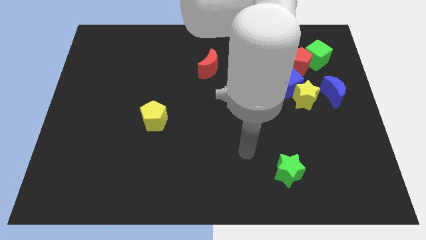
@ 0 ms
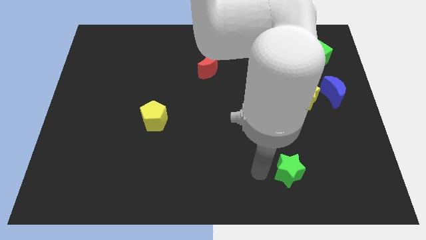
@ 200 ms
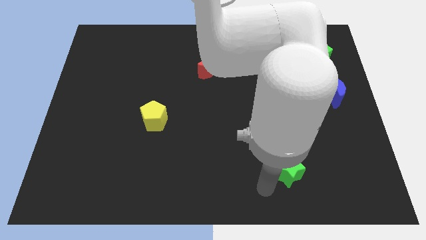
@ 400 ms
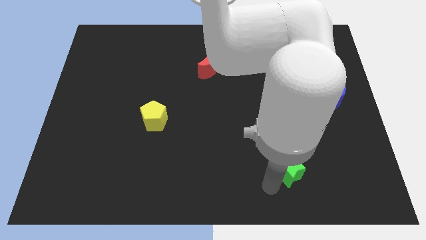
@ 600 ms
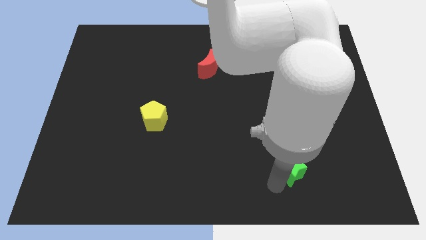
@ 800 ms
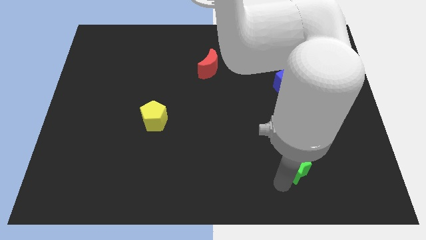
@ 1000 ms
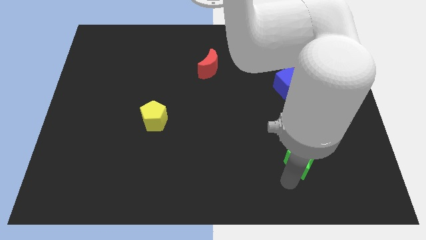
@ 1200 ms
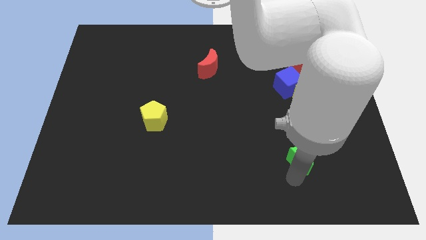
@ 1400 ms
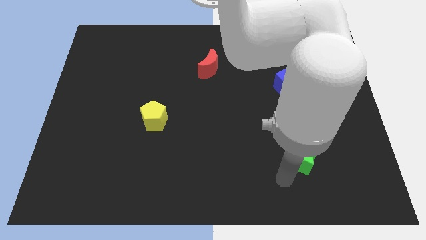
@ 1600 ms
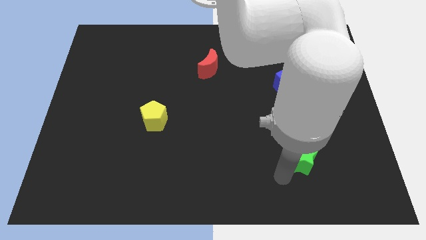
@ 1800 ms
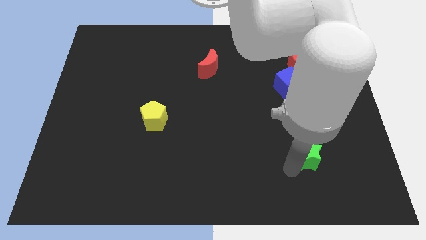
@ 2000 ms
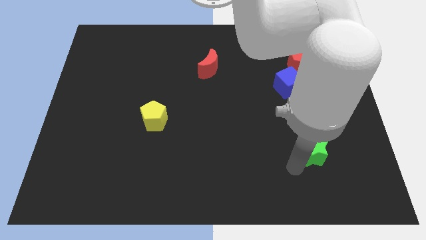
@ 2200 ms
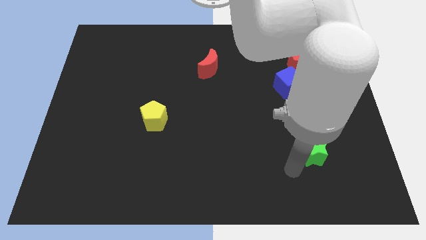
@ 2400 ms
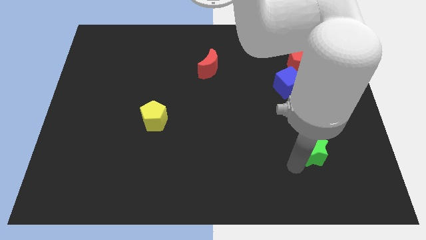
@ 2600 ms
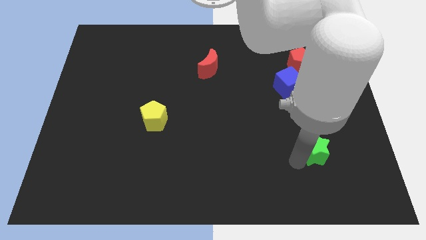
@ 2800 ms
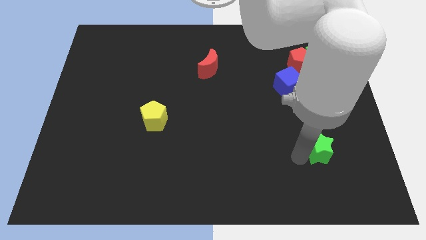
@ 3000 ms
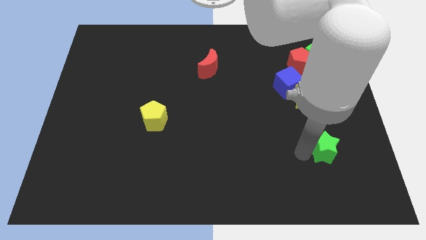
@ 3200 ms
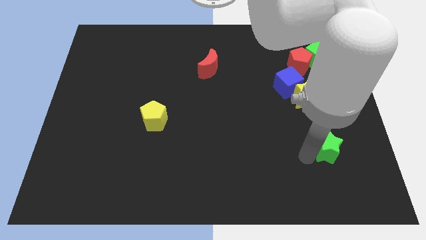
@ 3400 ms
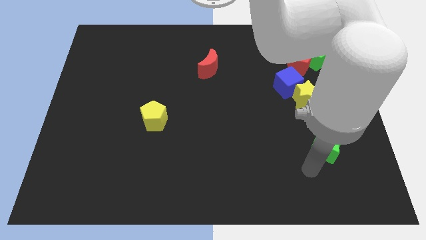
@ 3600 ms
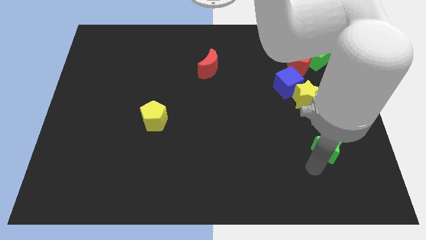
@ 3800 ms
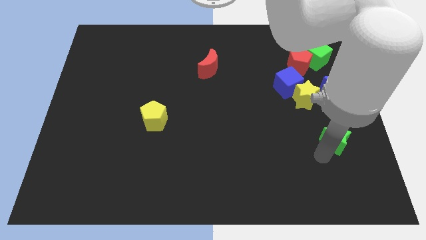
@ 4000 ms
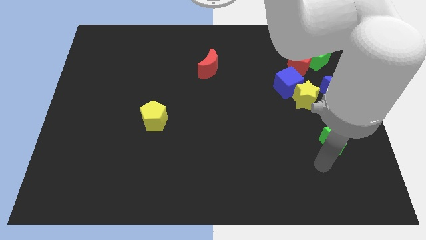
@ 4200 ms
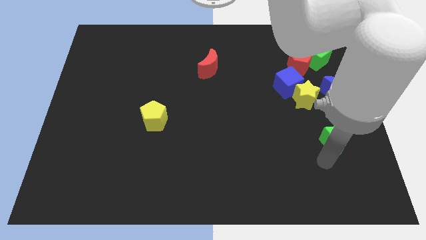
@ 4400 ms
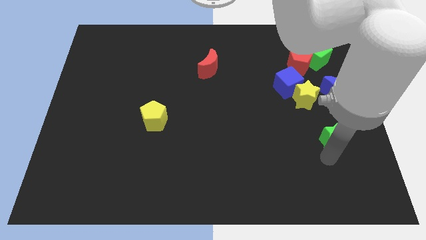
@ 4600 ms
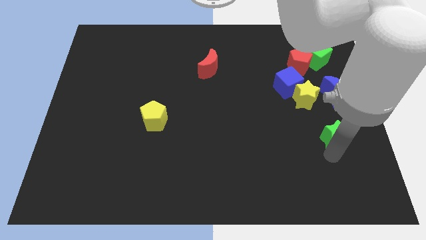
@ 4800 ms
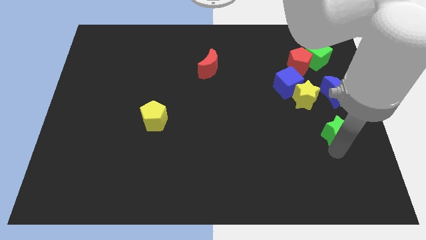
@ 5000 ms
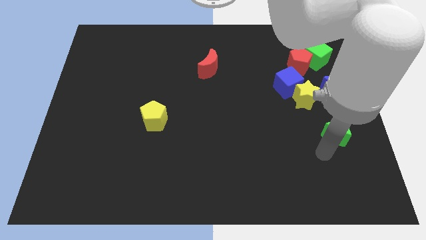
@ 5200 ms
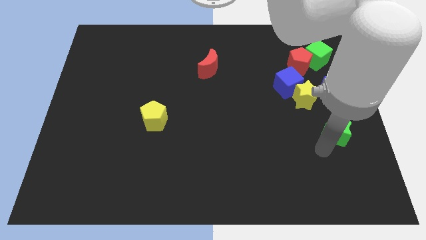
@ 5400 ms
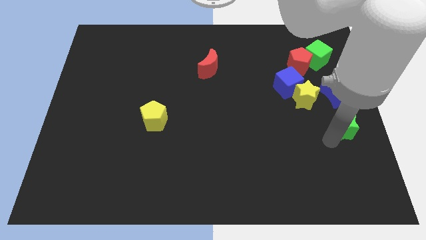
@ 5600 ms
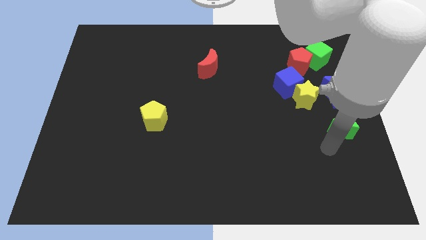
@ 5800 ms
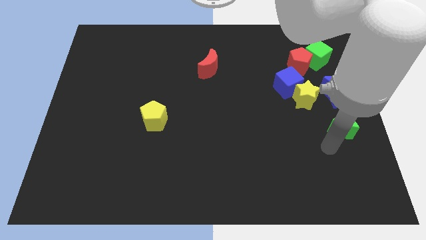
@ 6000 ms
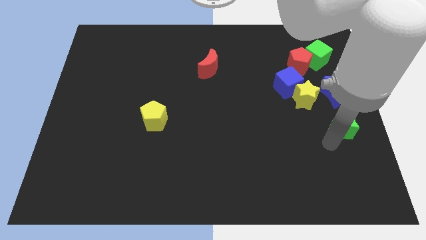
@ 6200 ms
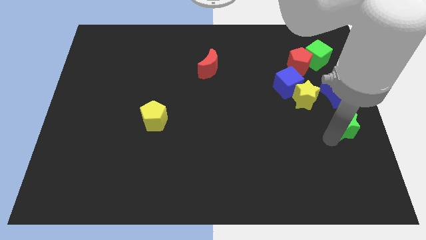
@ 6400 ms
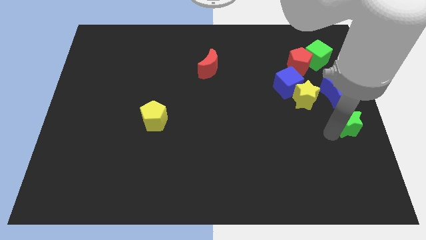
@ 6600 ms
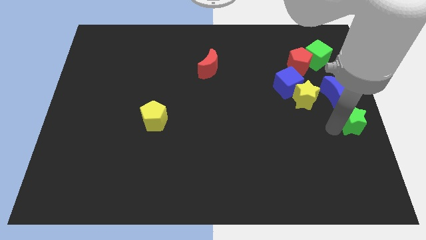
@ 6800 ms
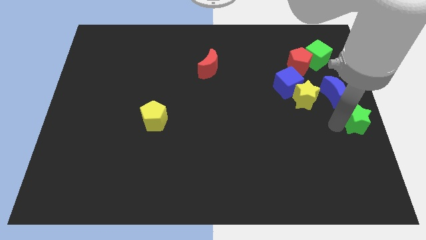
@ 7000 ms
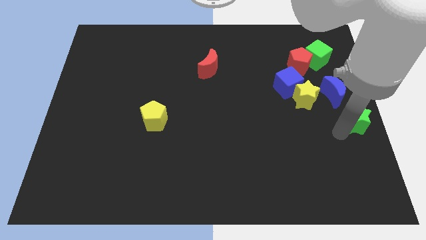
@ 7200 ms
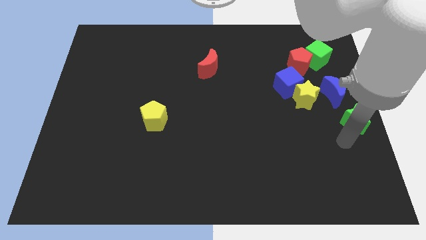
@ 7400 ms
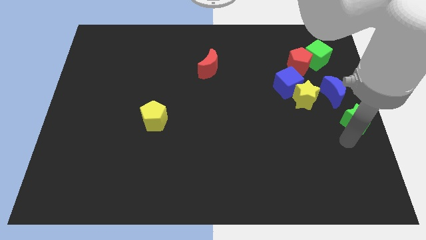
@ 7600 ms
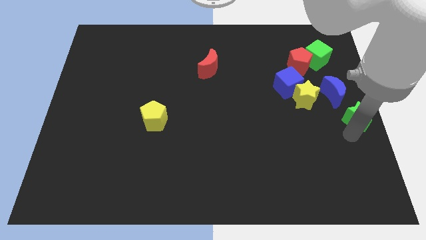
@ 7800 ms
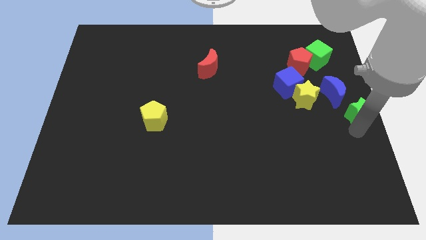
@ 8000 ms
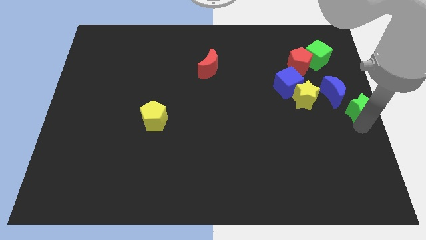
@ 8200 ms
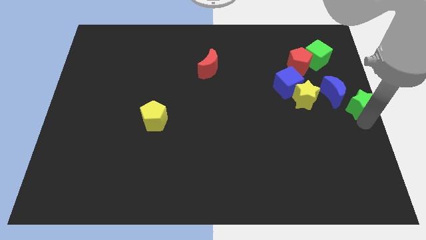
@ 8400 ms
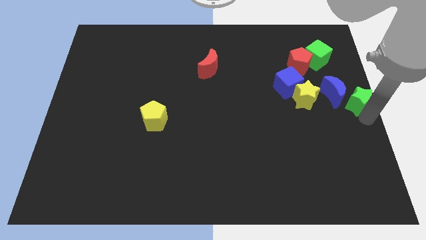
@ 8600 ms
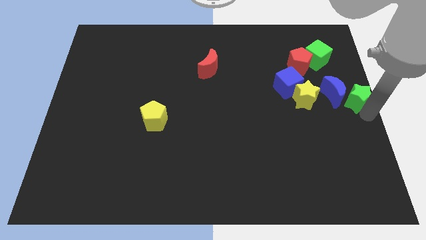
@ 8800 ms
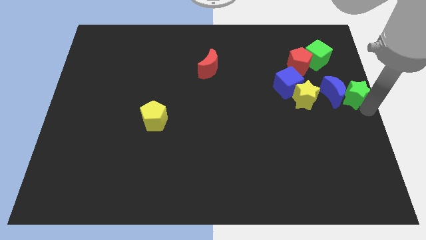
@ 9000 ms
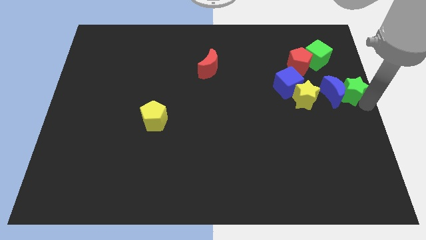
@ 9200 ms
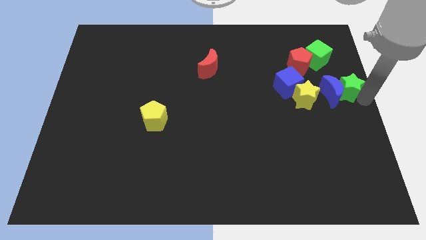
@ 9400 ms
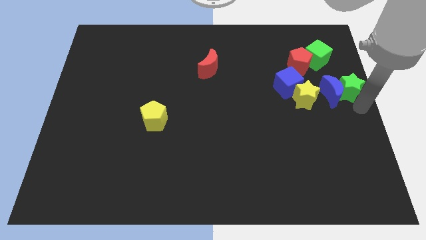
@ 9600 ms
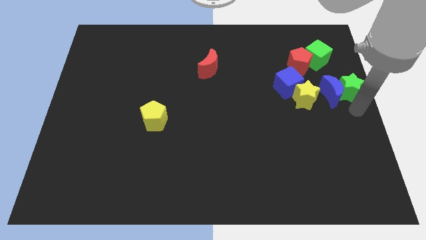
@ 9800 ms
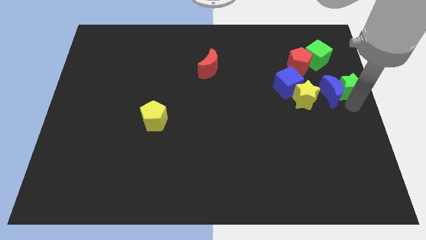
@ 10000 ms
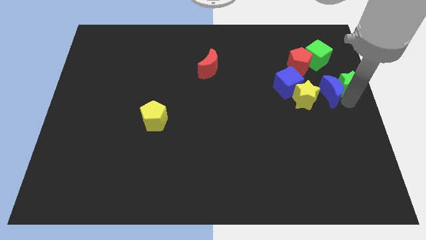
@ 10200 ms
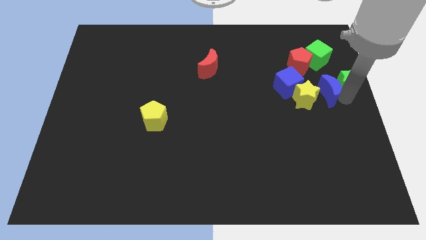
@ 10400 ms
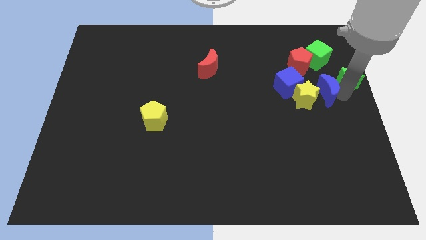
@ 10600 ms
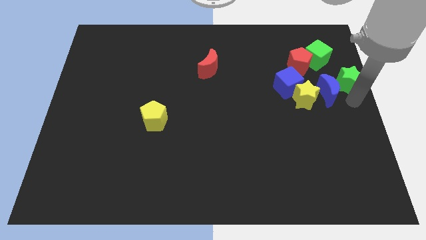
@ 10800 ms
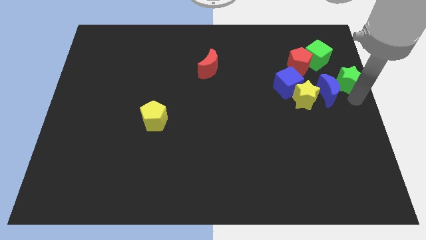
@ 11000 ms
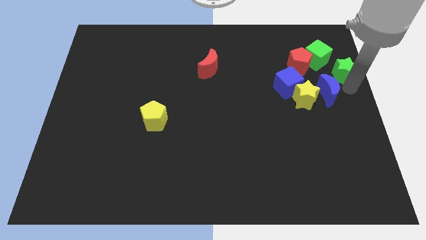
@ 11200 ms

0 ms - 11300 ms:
slide the green star to the top side of the blue moon

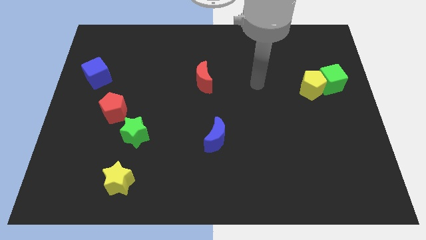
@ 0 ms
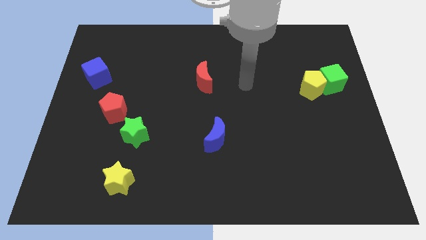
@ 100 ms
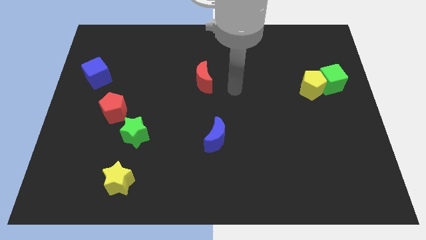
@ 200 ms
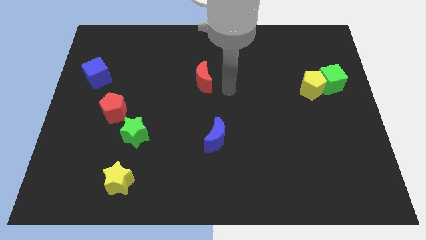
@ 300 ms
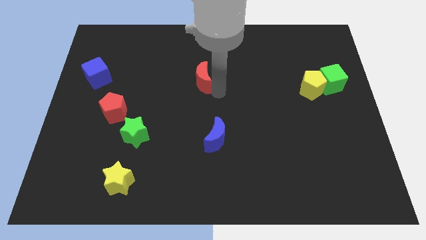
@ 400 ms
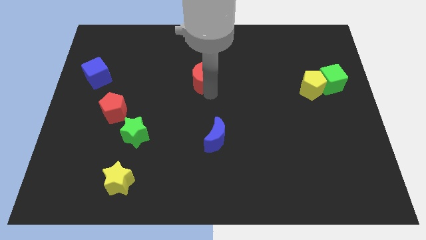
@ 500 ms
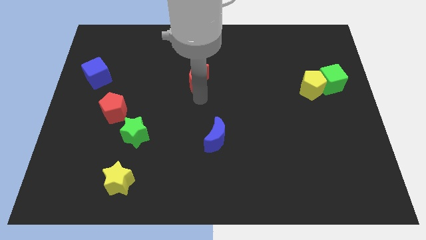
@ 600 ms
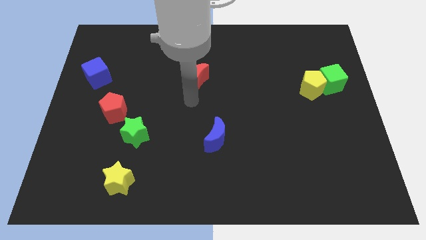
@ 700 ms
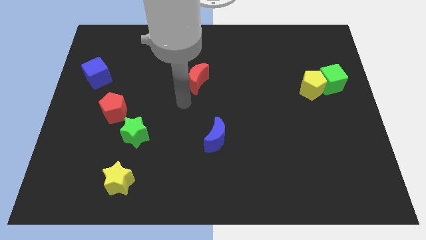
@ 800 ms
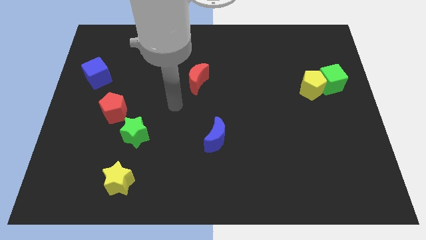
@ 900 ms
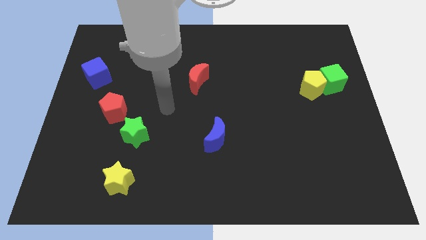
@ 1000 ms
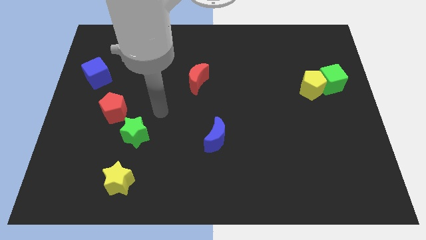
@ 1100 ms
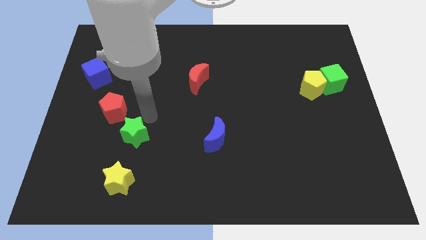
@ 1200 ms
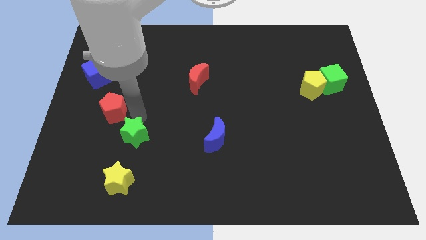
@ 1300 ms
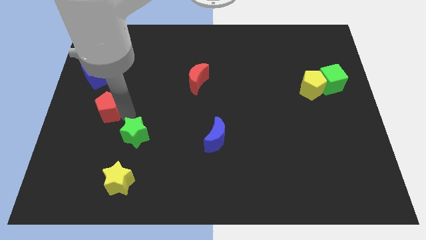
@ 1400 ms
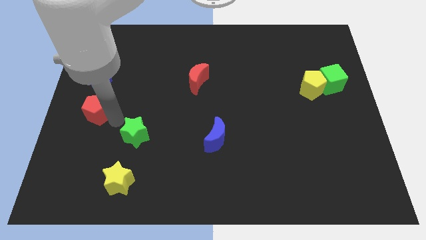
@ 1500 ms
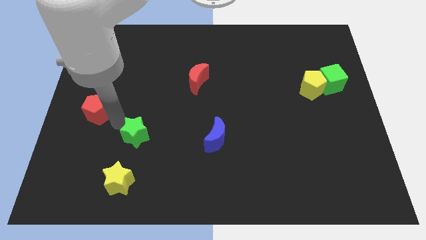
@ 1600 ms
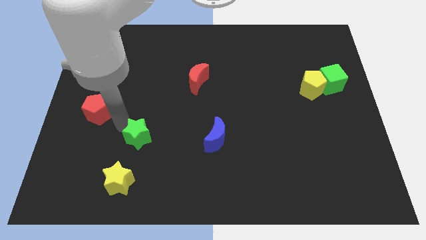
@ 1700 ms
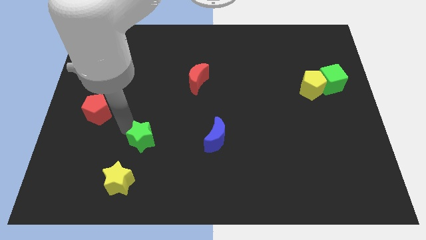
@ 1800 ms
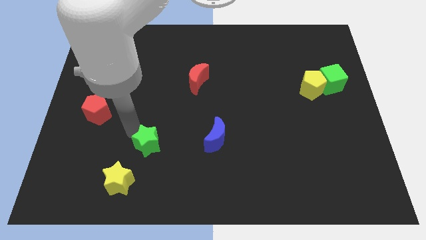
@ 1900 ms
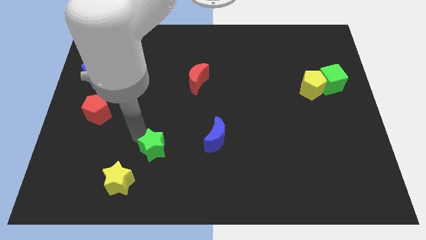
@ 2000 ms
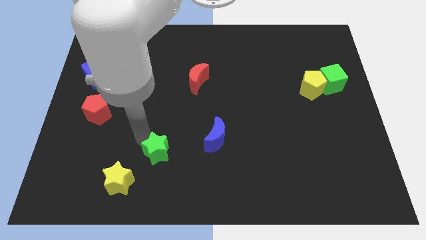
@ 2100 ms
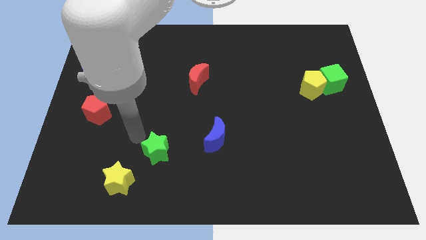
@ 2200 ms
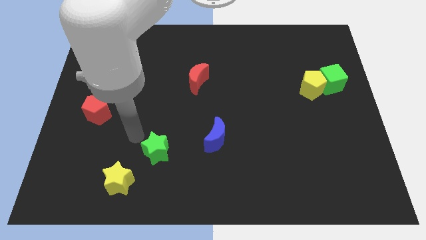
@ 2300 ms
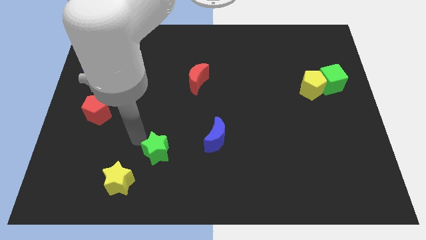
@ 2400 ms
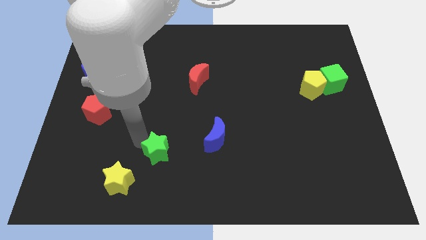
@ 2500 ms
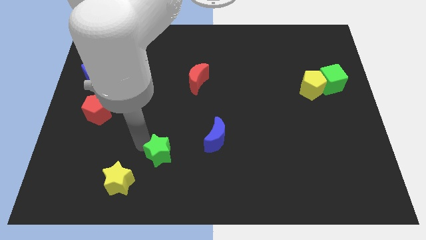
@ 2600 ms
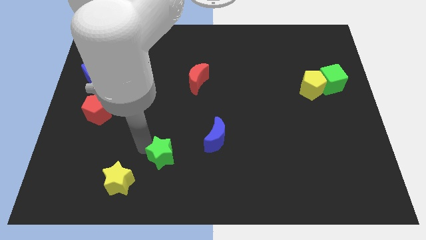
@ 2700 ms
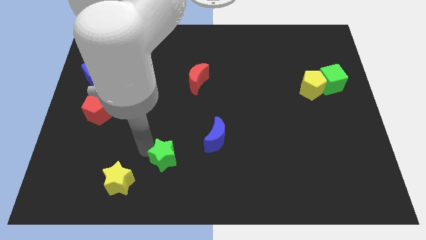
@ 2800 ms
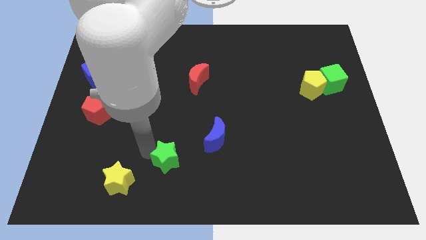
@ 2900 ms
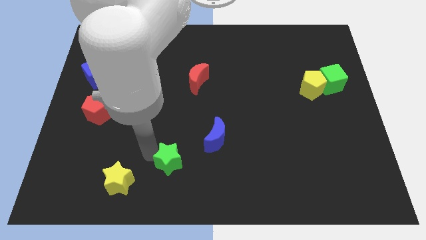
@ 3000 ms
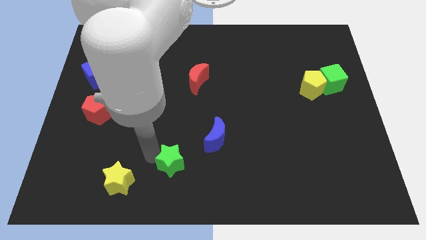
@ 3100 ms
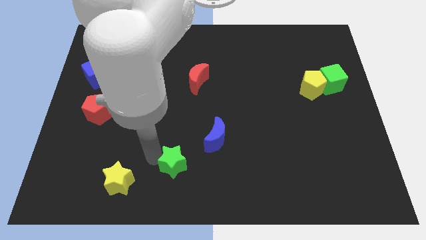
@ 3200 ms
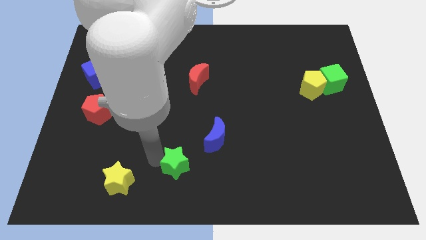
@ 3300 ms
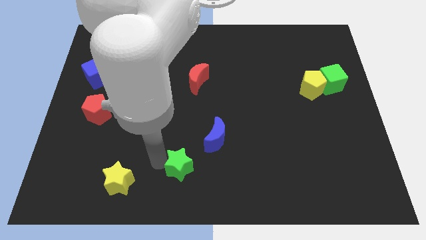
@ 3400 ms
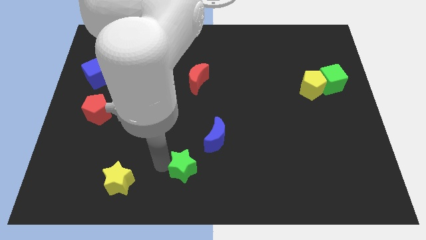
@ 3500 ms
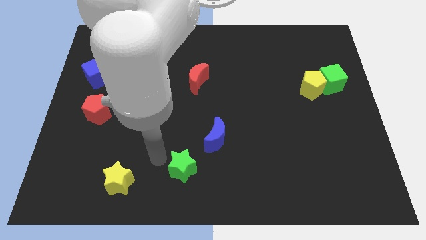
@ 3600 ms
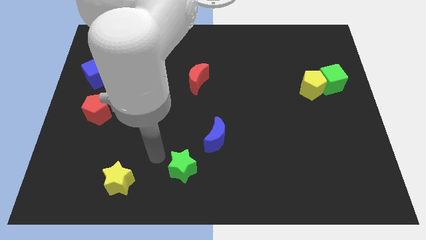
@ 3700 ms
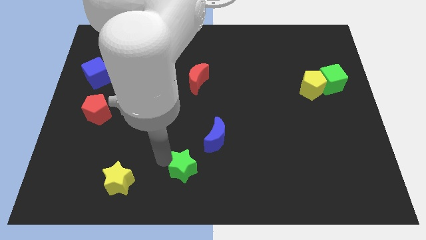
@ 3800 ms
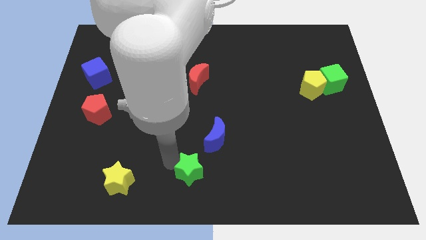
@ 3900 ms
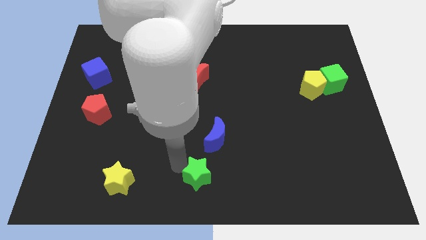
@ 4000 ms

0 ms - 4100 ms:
move the green star to the bottom of the blue moon
